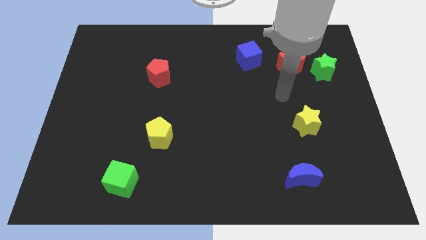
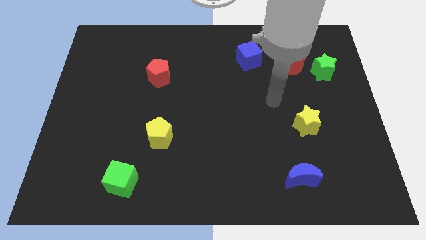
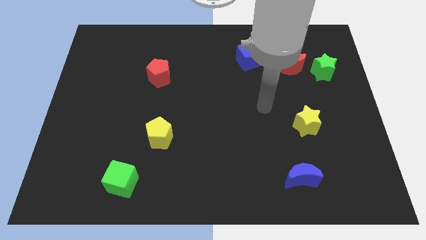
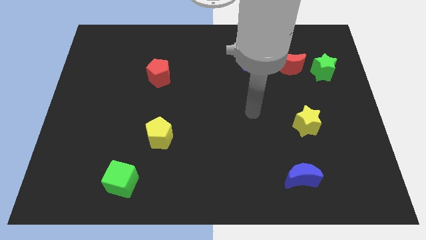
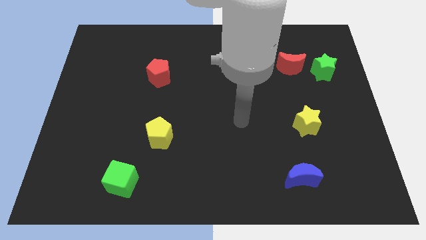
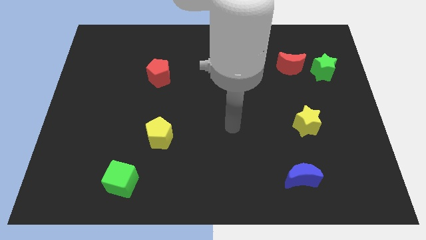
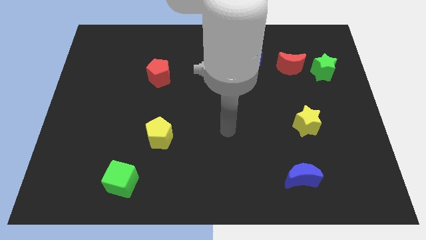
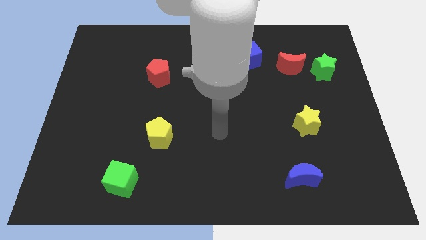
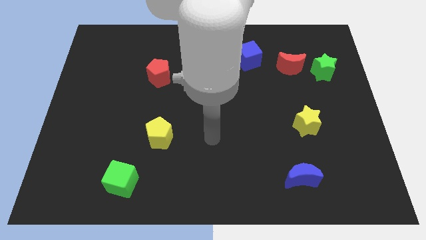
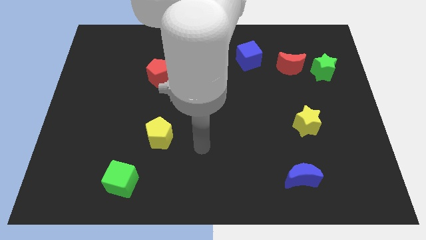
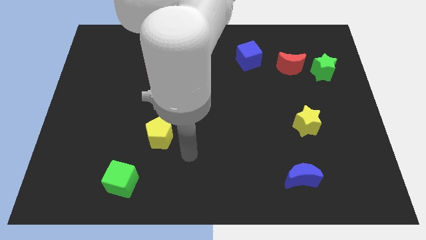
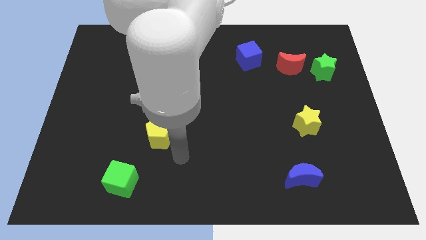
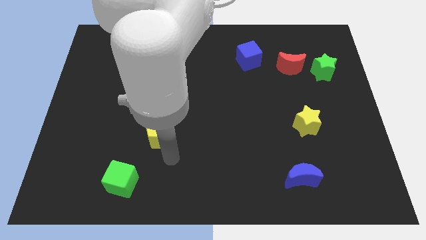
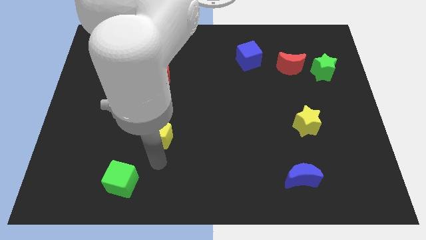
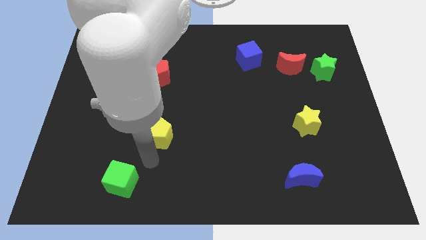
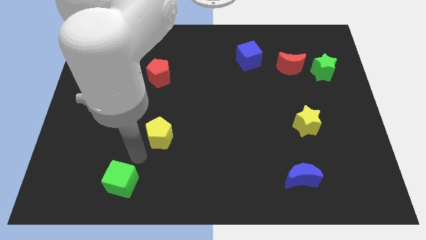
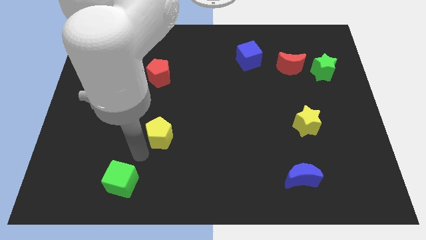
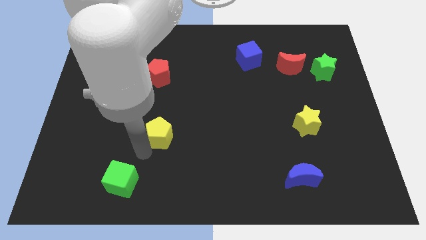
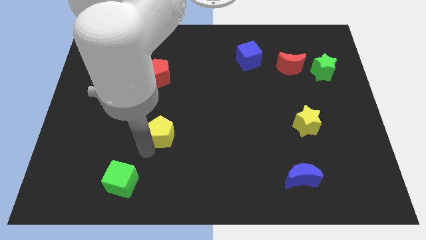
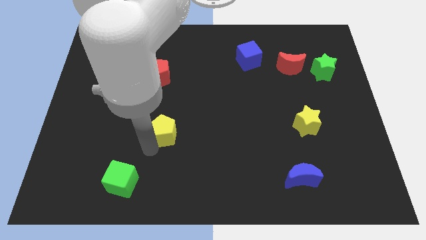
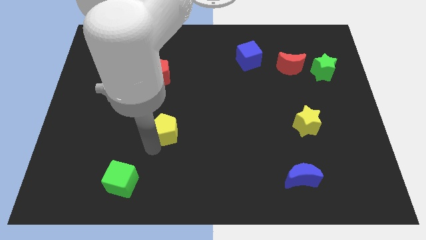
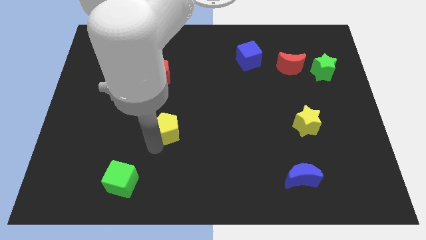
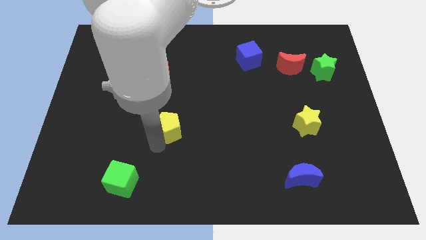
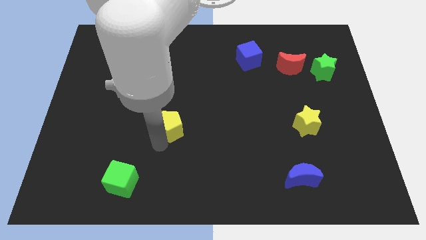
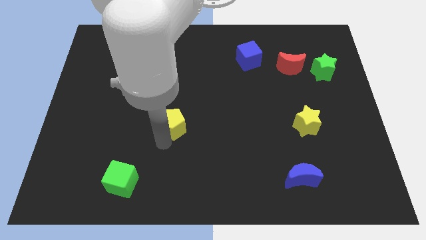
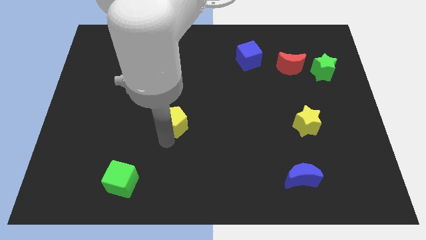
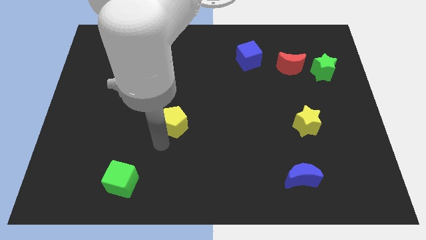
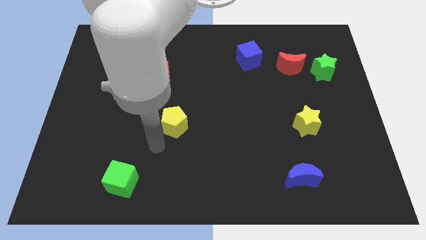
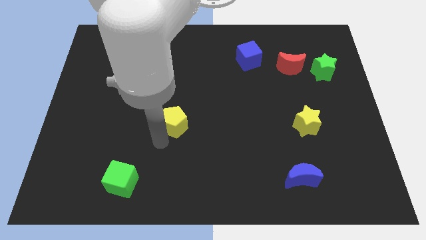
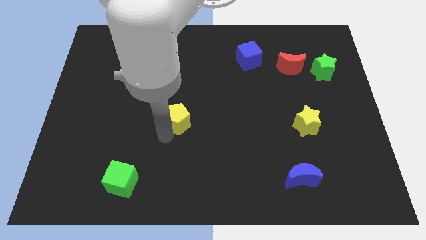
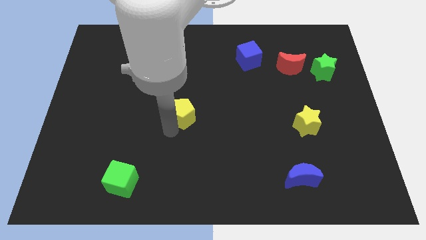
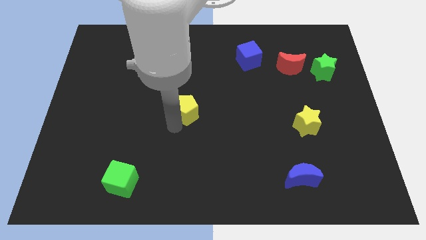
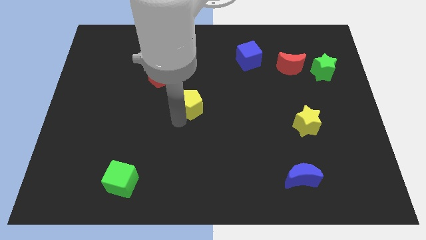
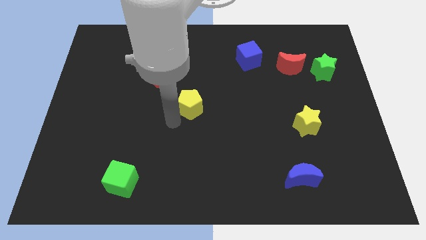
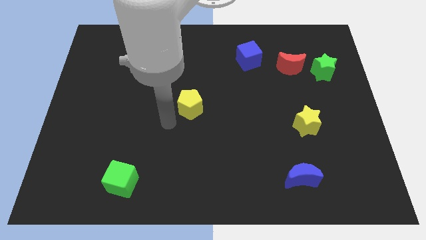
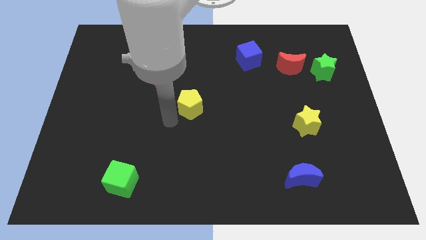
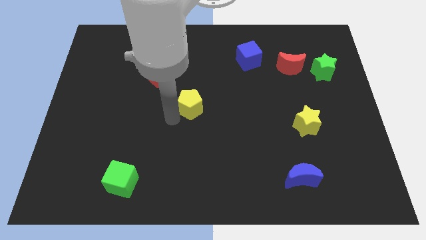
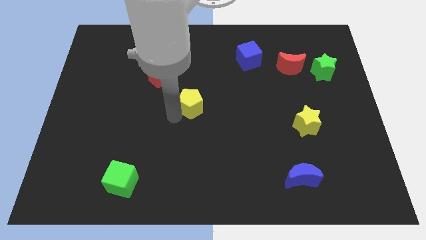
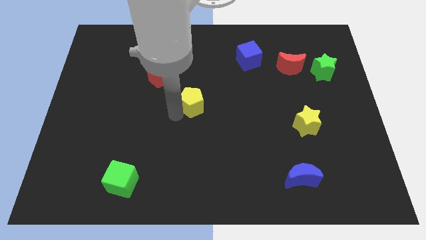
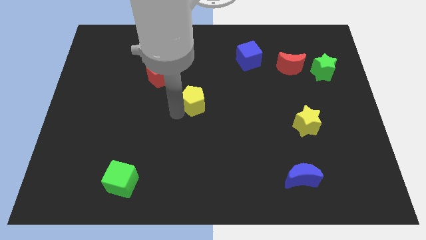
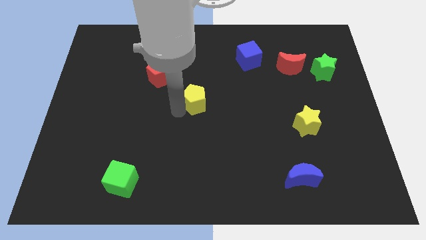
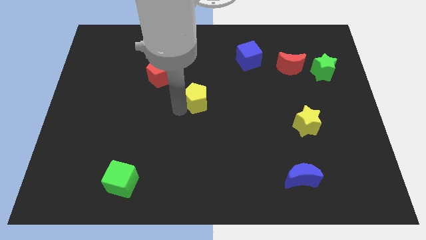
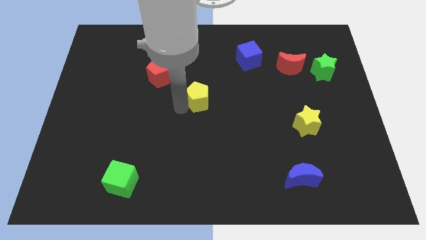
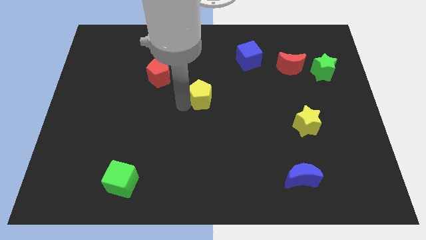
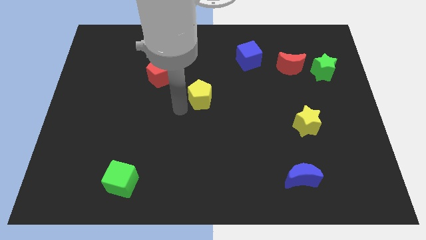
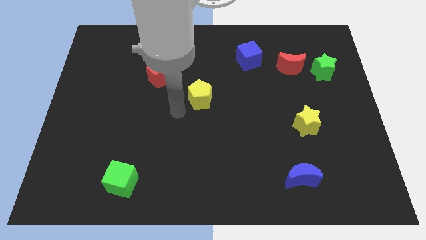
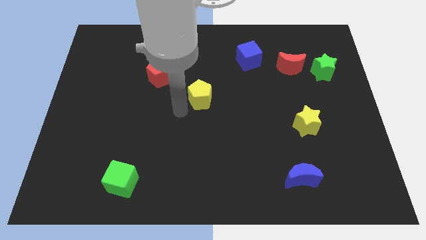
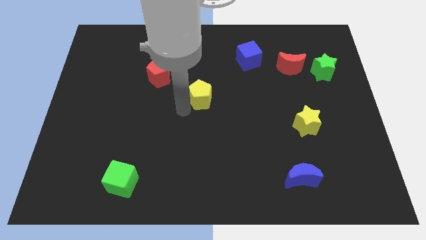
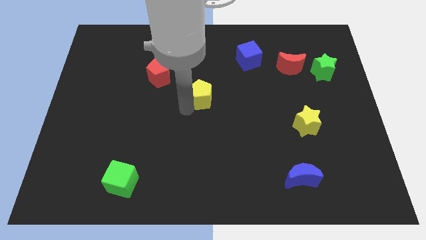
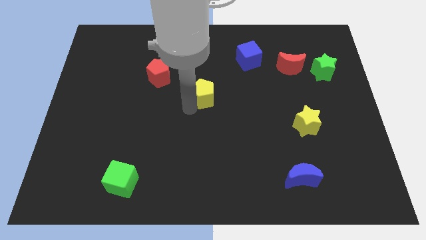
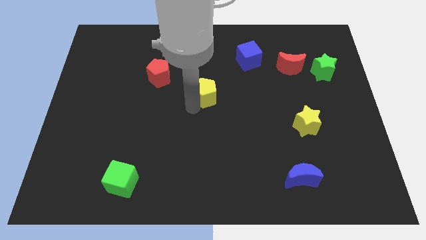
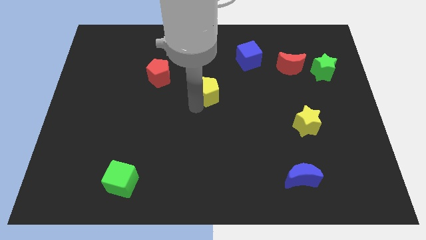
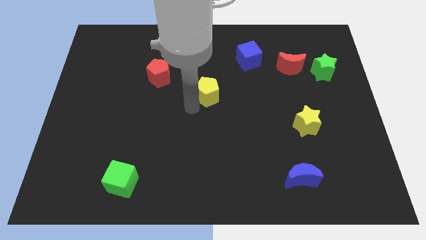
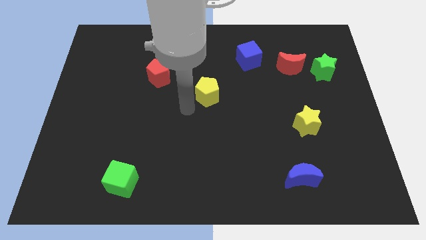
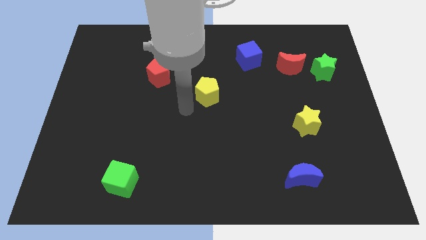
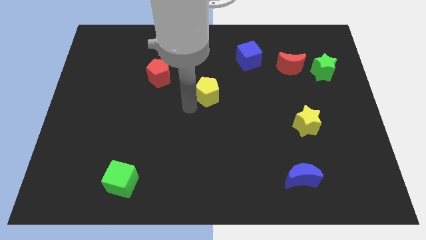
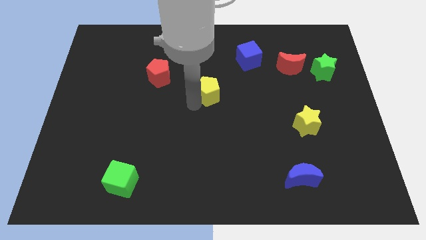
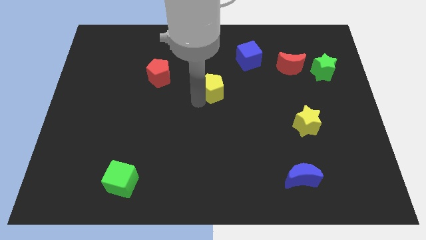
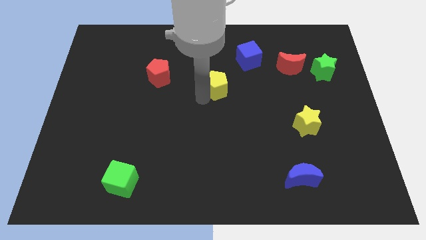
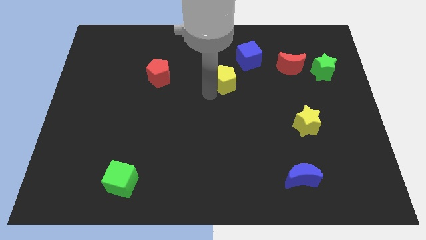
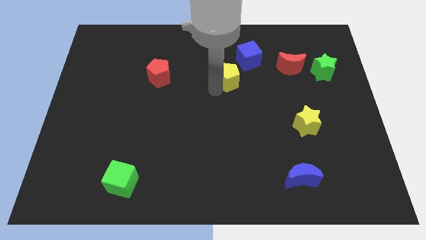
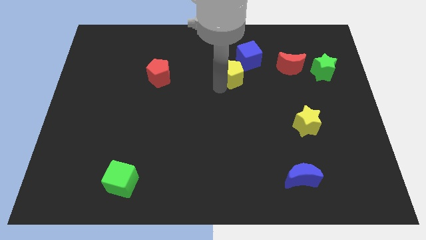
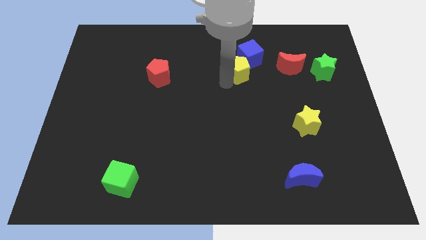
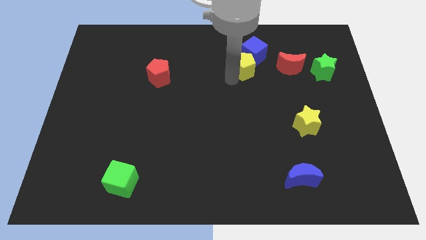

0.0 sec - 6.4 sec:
slide the yellow pentagon close to the blue cube
